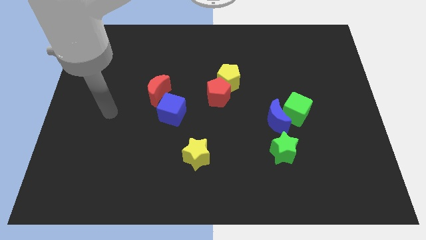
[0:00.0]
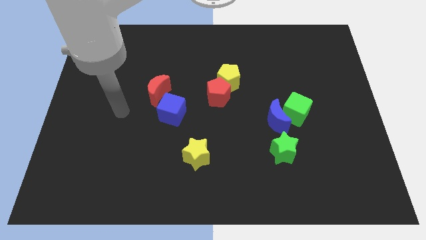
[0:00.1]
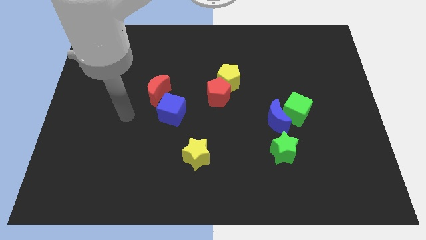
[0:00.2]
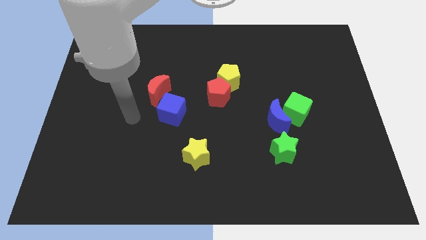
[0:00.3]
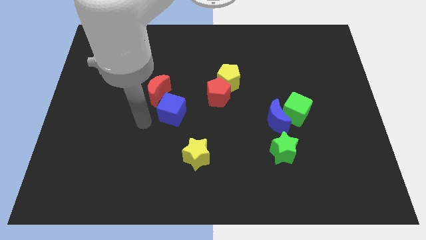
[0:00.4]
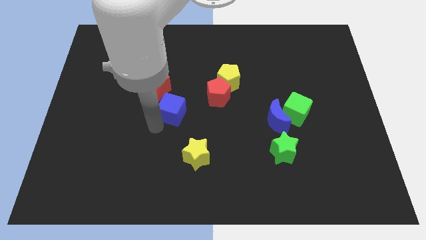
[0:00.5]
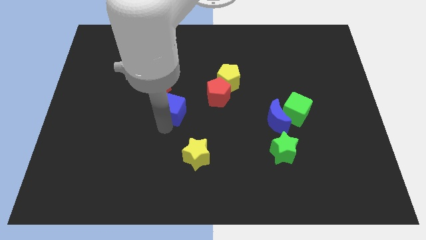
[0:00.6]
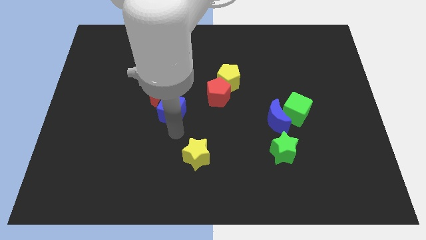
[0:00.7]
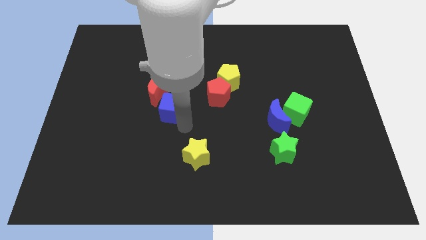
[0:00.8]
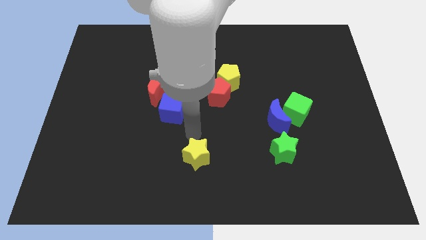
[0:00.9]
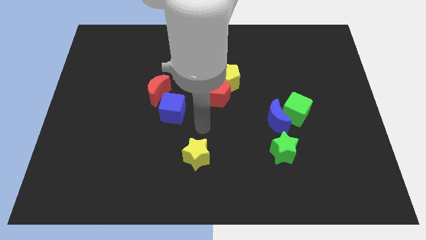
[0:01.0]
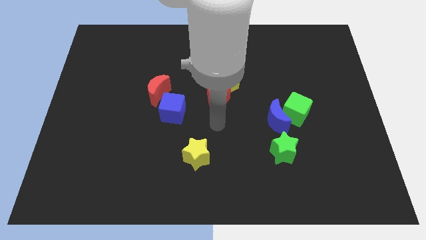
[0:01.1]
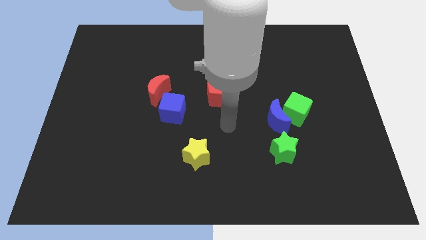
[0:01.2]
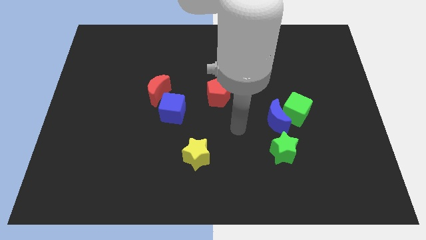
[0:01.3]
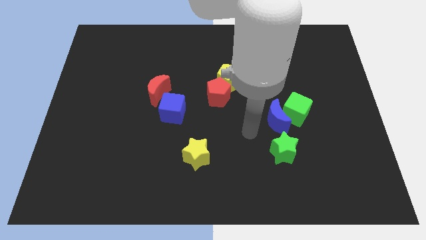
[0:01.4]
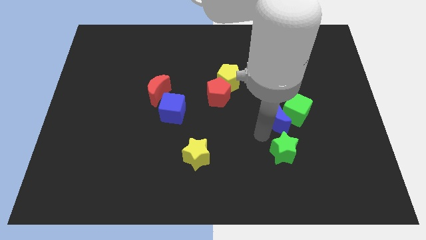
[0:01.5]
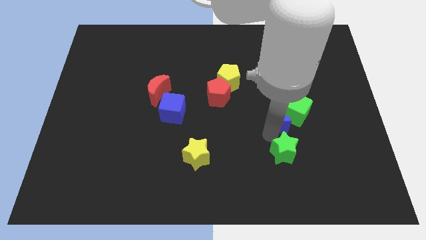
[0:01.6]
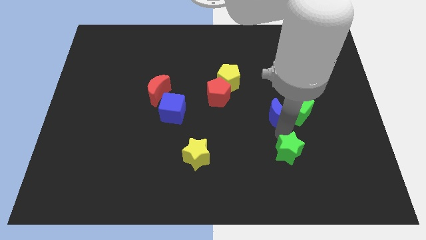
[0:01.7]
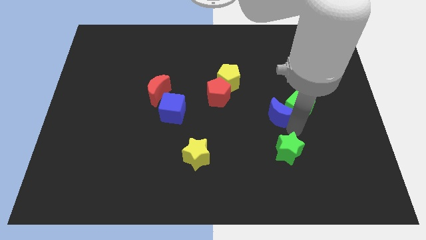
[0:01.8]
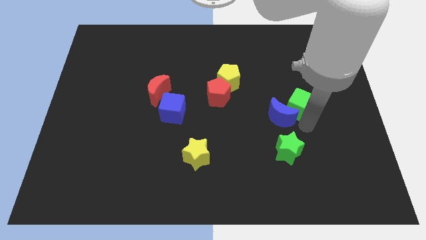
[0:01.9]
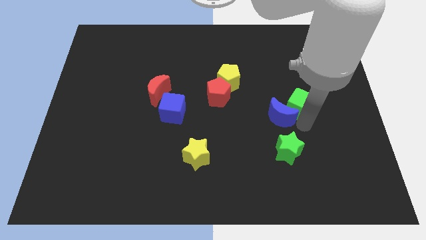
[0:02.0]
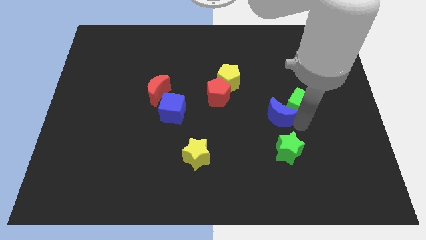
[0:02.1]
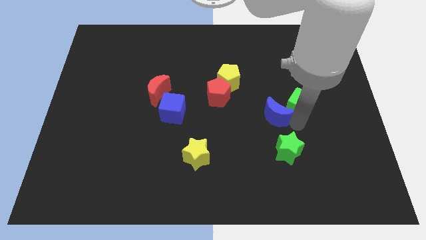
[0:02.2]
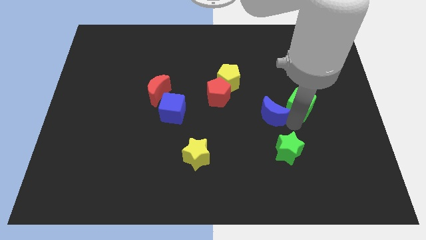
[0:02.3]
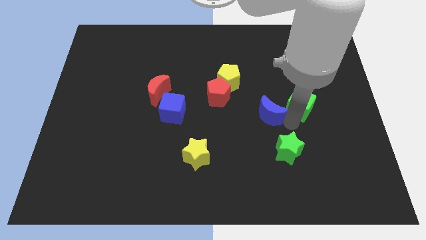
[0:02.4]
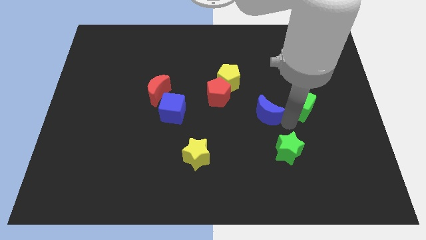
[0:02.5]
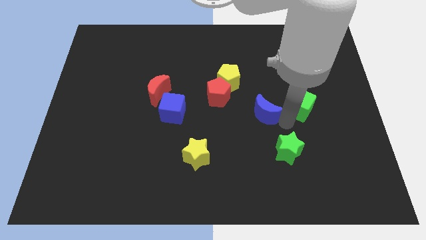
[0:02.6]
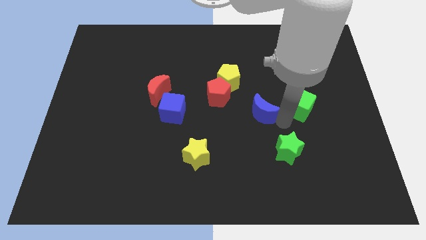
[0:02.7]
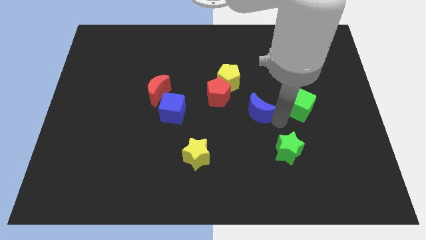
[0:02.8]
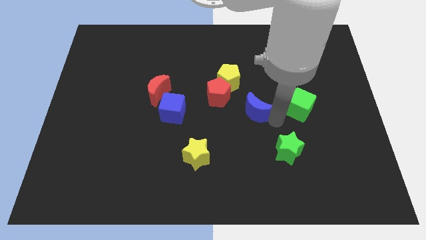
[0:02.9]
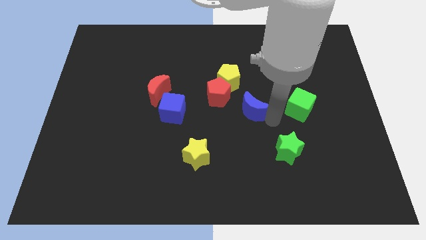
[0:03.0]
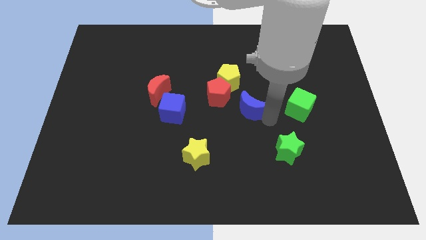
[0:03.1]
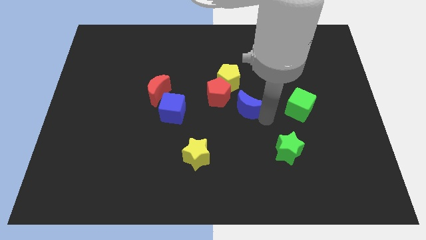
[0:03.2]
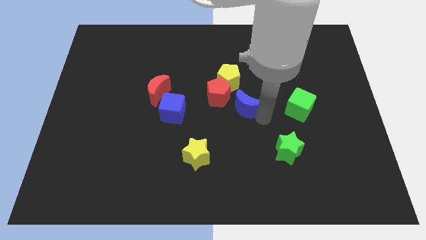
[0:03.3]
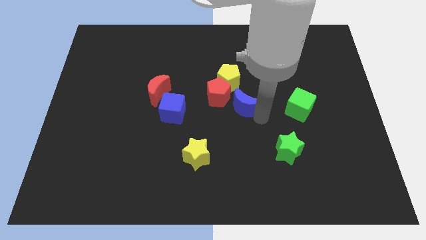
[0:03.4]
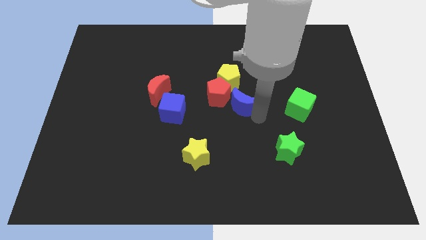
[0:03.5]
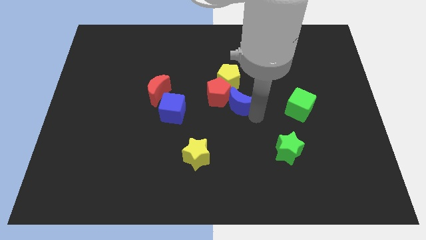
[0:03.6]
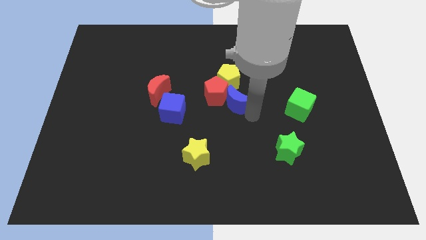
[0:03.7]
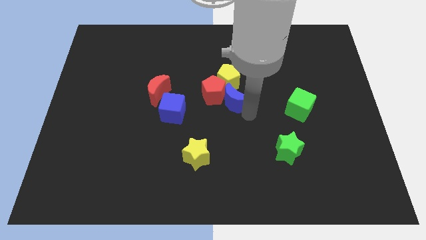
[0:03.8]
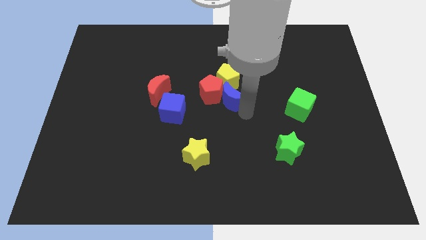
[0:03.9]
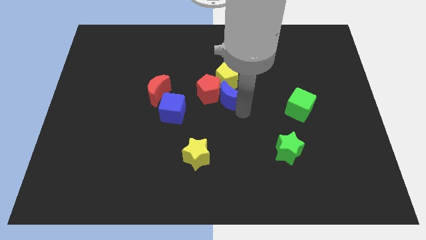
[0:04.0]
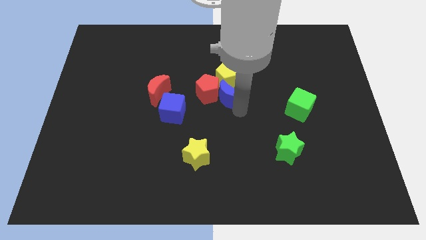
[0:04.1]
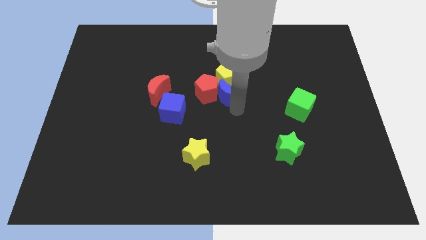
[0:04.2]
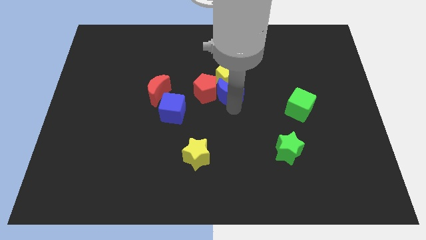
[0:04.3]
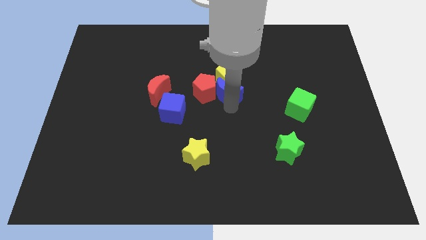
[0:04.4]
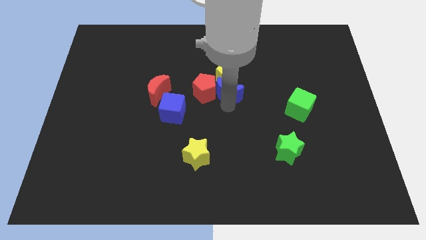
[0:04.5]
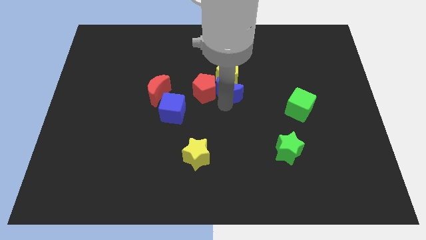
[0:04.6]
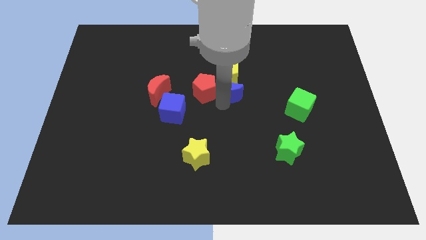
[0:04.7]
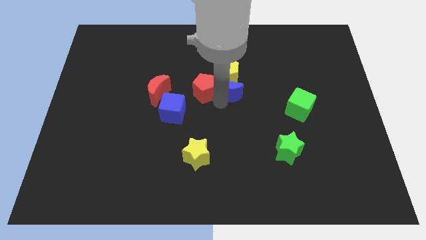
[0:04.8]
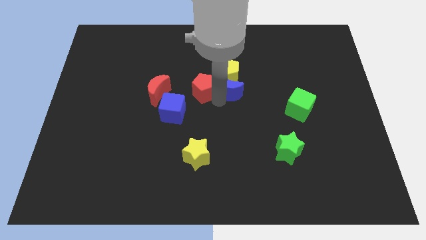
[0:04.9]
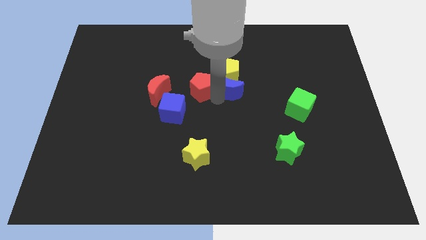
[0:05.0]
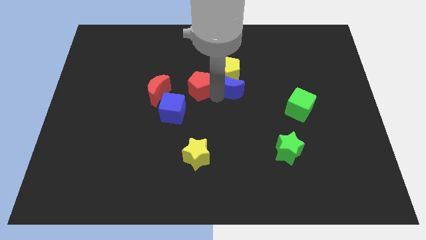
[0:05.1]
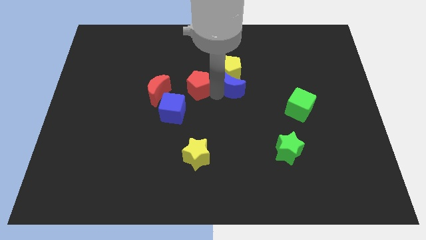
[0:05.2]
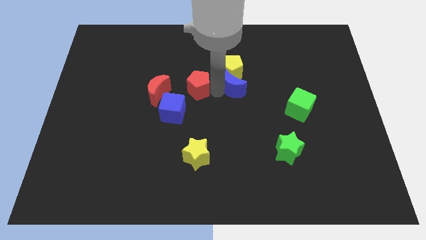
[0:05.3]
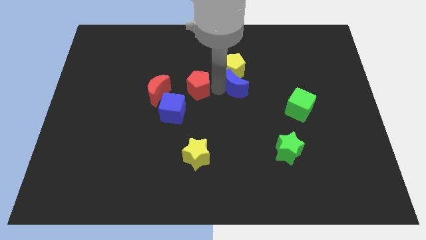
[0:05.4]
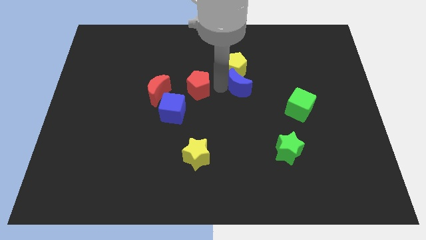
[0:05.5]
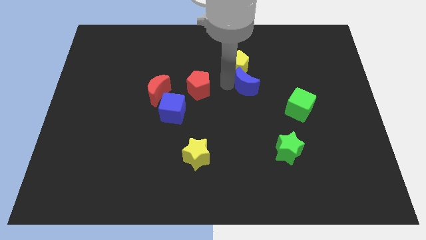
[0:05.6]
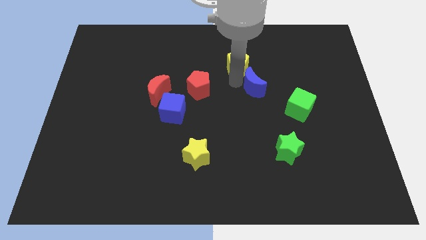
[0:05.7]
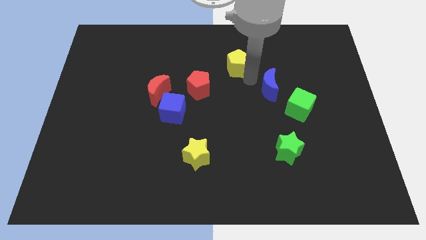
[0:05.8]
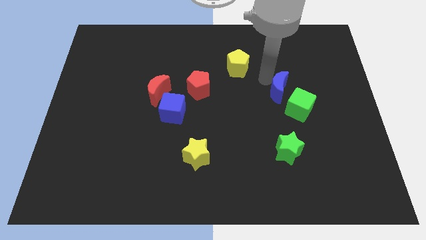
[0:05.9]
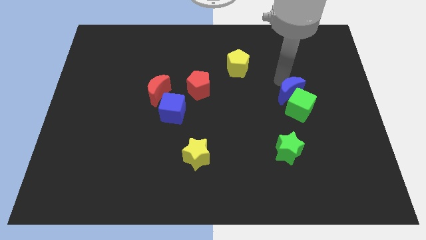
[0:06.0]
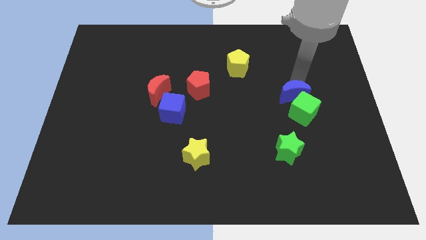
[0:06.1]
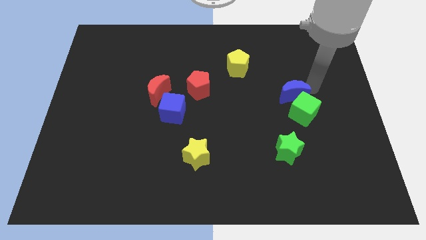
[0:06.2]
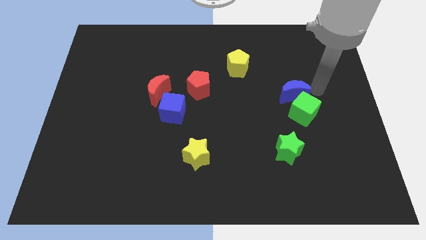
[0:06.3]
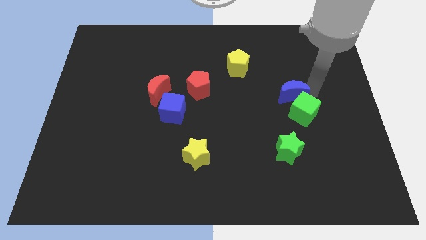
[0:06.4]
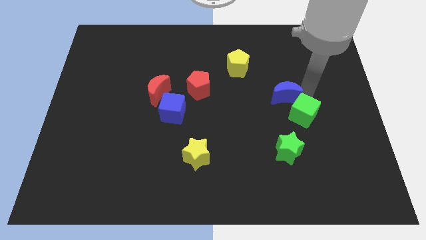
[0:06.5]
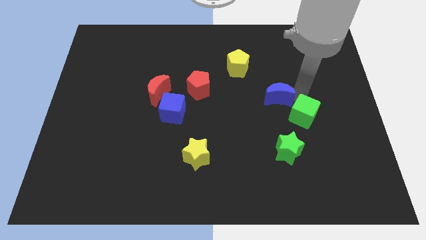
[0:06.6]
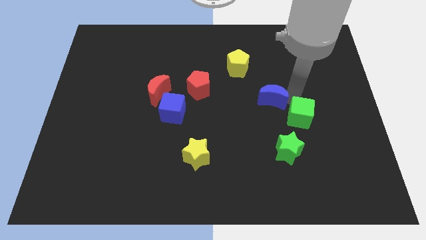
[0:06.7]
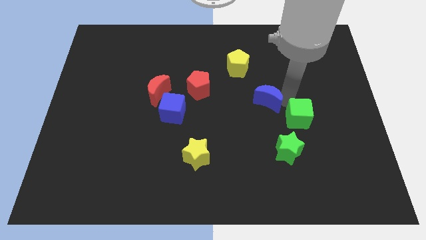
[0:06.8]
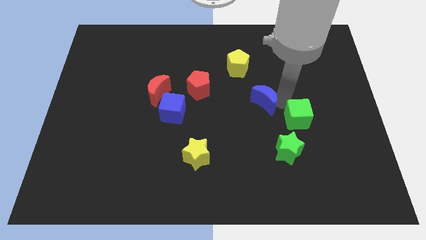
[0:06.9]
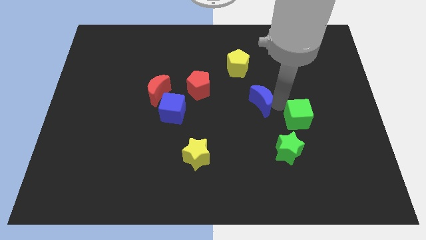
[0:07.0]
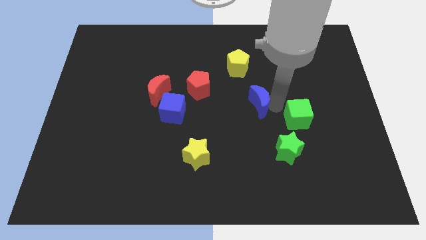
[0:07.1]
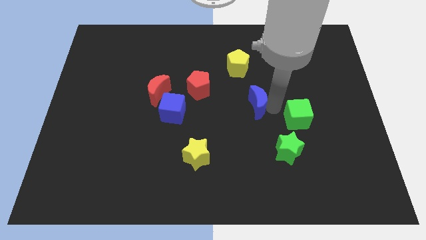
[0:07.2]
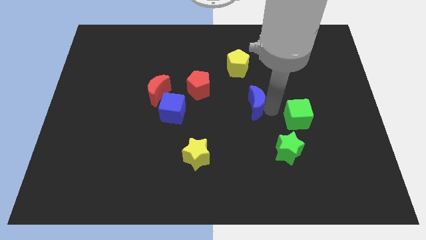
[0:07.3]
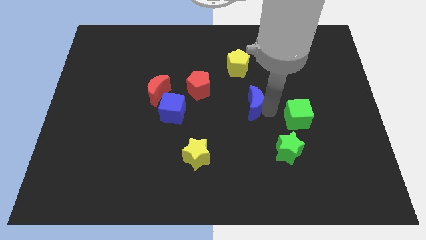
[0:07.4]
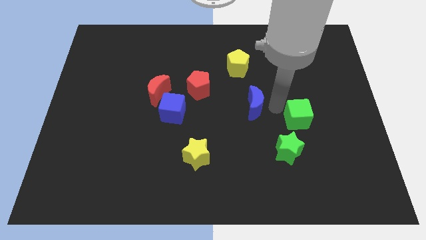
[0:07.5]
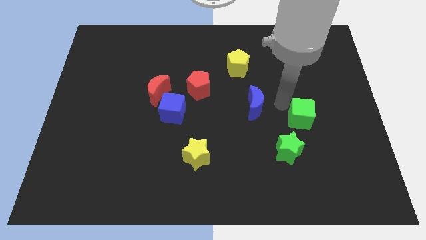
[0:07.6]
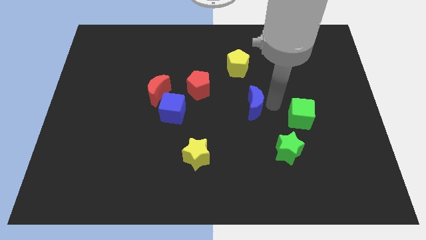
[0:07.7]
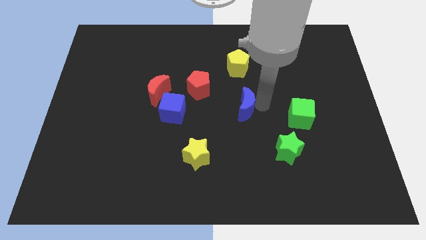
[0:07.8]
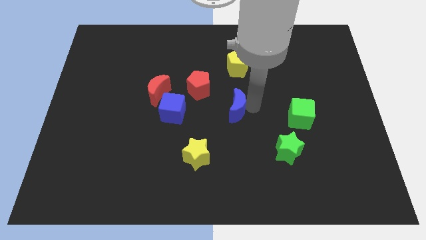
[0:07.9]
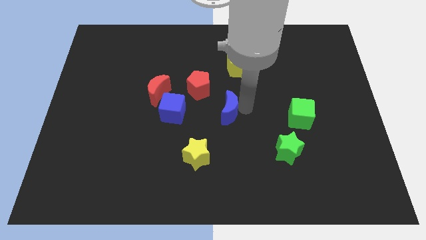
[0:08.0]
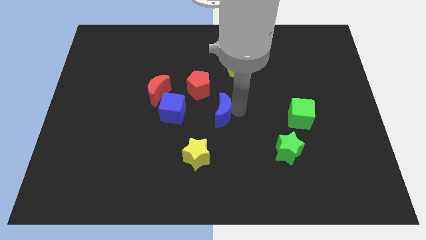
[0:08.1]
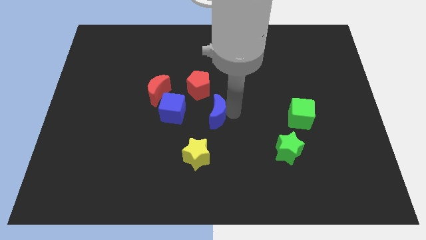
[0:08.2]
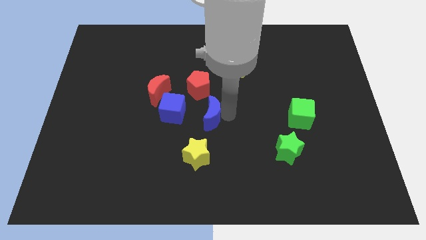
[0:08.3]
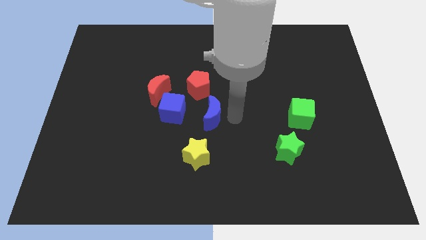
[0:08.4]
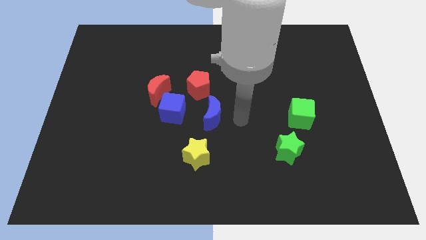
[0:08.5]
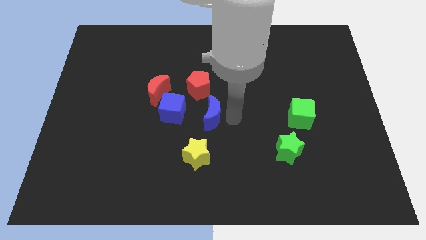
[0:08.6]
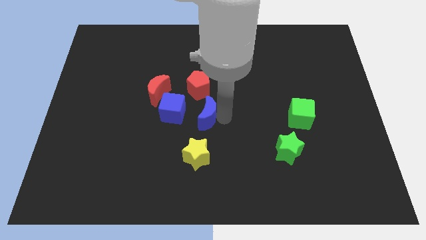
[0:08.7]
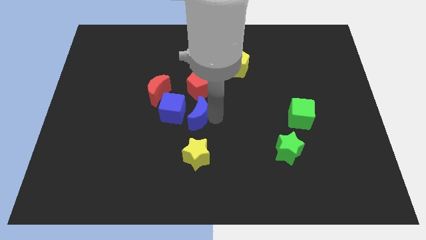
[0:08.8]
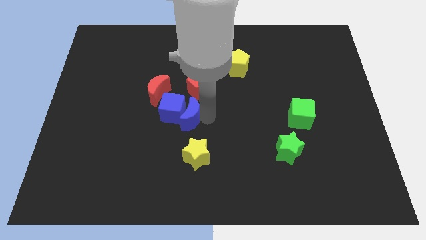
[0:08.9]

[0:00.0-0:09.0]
slide the blue moon to the blue cube
